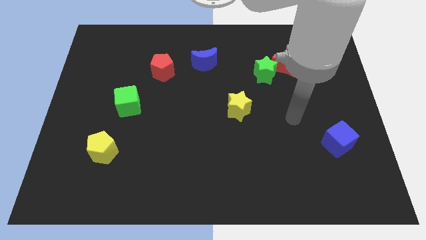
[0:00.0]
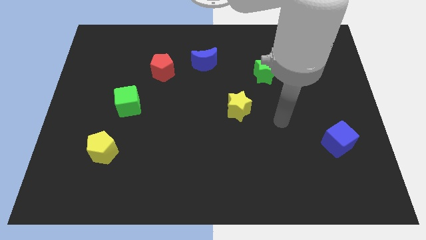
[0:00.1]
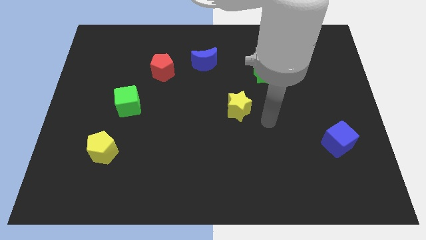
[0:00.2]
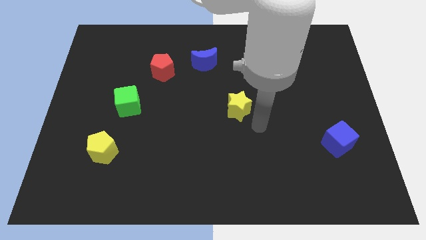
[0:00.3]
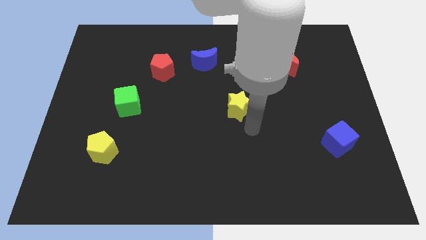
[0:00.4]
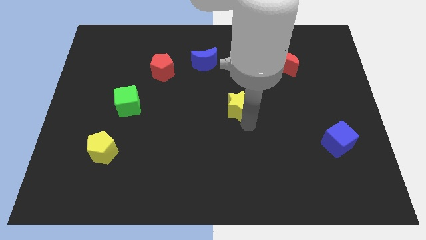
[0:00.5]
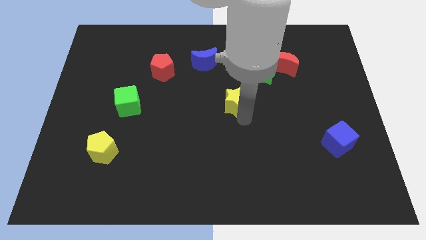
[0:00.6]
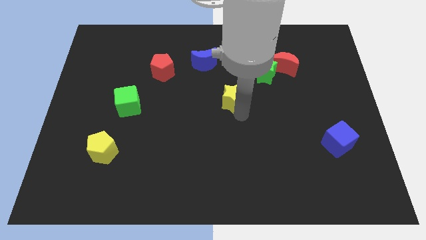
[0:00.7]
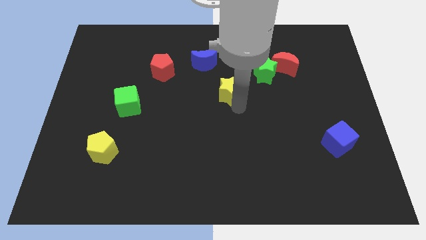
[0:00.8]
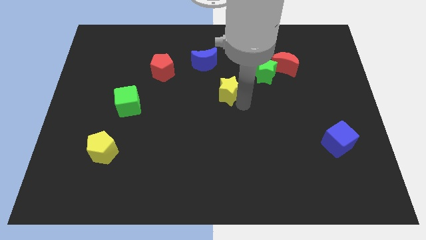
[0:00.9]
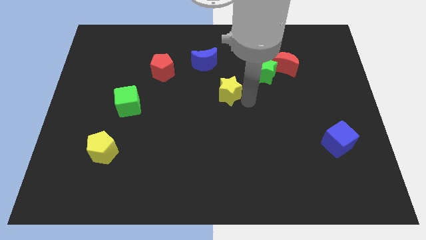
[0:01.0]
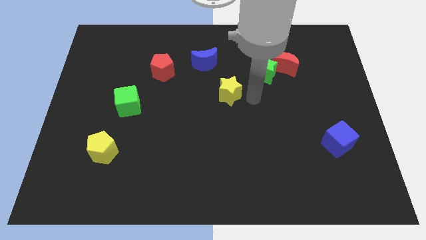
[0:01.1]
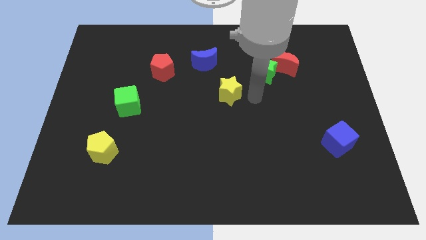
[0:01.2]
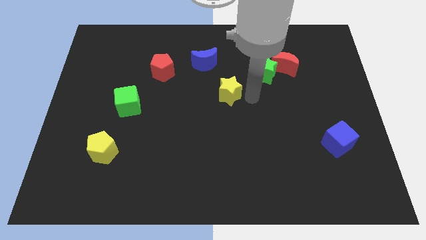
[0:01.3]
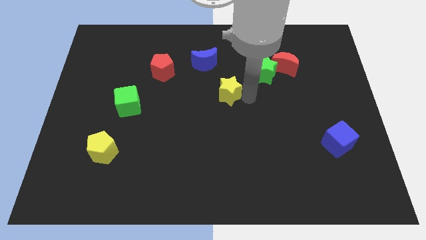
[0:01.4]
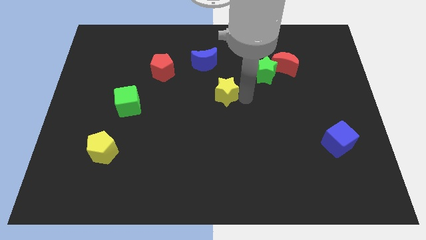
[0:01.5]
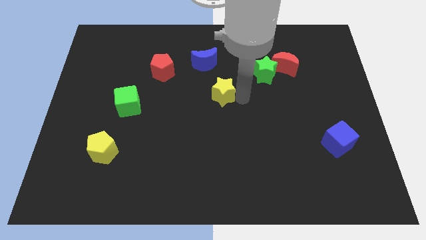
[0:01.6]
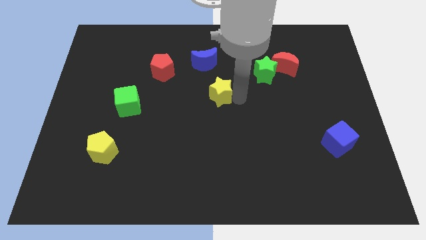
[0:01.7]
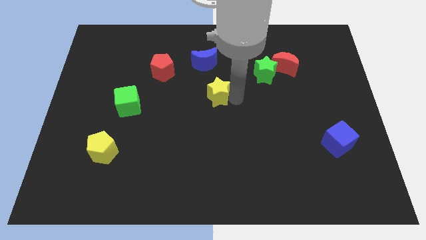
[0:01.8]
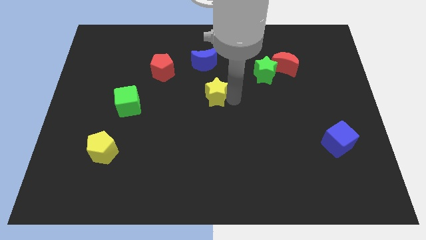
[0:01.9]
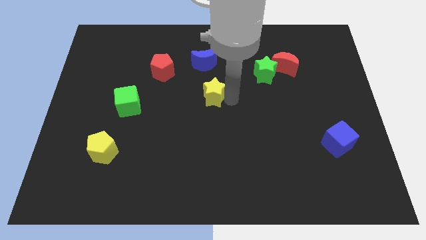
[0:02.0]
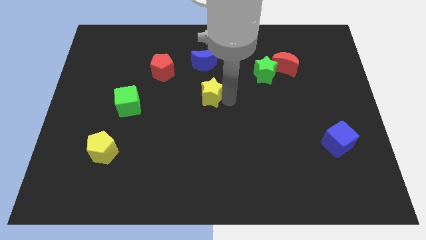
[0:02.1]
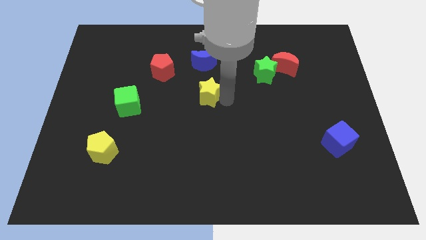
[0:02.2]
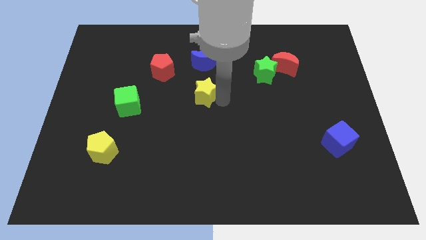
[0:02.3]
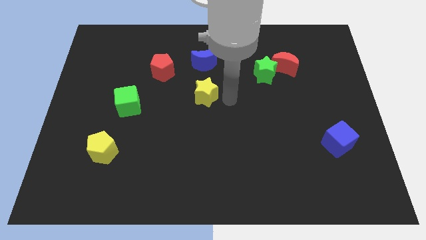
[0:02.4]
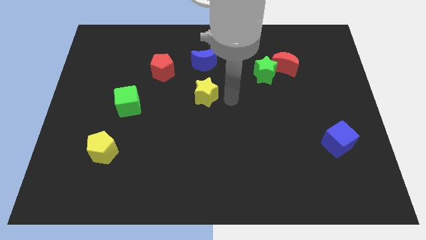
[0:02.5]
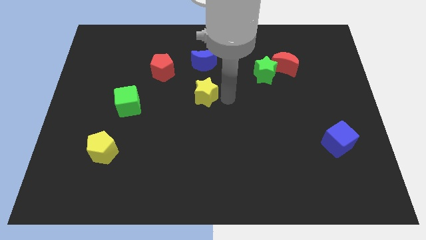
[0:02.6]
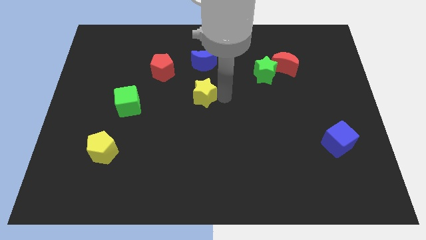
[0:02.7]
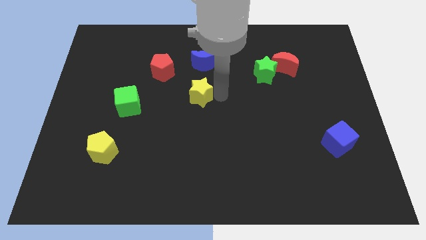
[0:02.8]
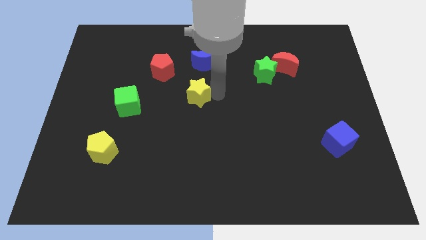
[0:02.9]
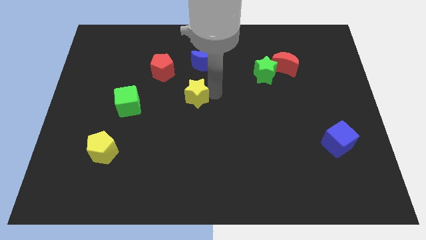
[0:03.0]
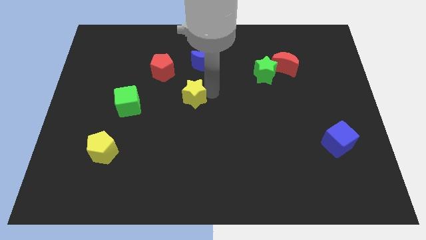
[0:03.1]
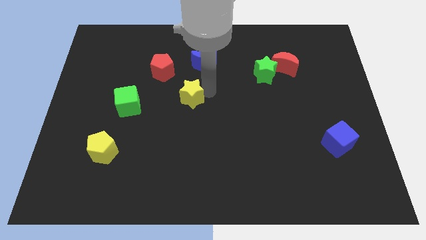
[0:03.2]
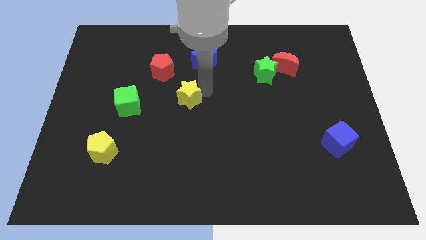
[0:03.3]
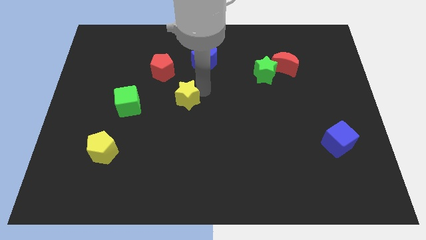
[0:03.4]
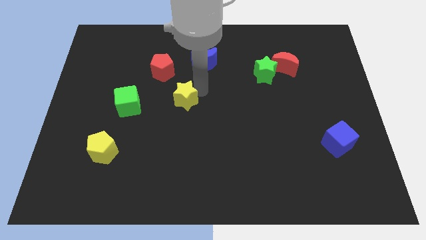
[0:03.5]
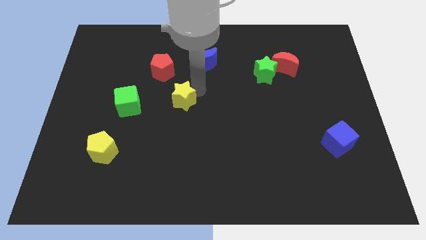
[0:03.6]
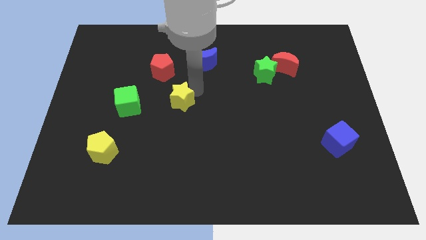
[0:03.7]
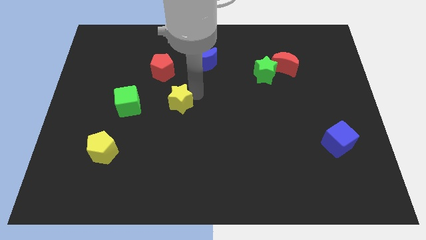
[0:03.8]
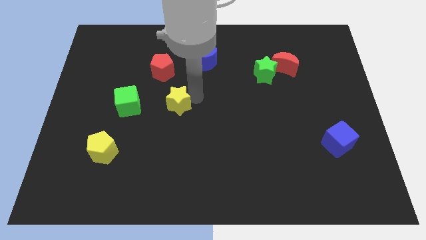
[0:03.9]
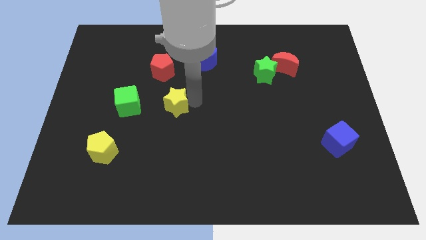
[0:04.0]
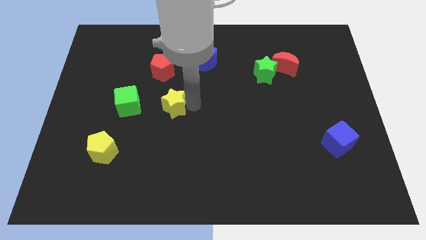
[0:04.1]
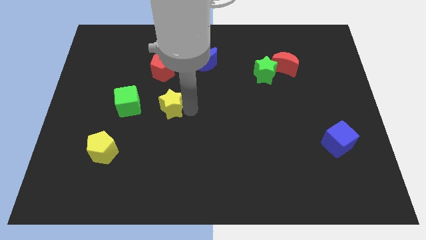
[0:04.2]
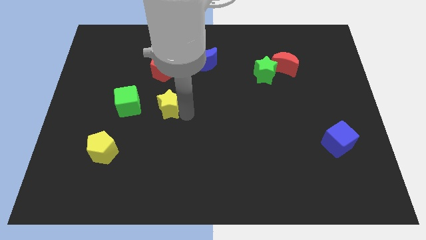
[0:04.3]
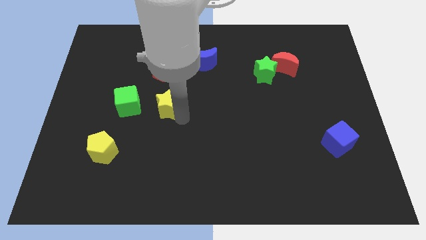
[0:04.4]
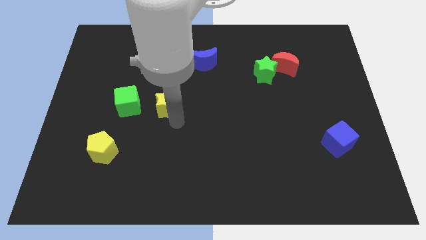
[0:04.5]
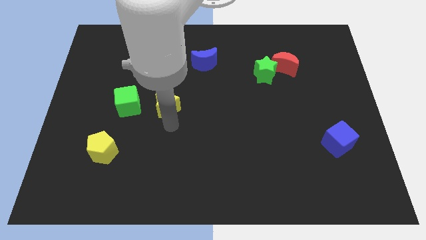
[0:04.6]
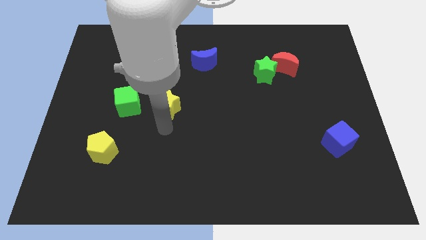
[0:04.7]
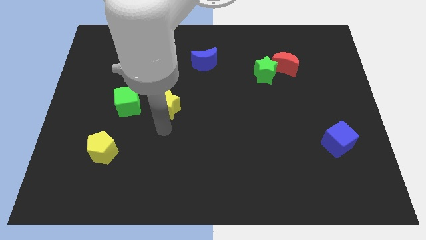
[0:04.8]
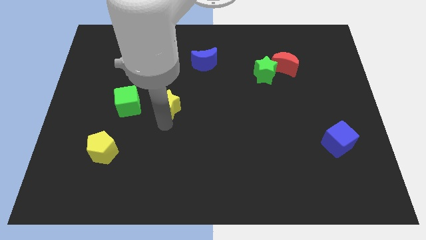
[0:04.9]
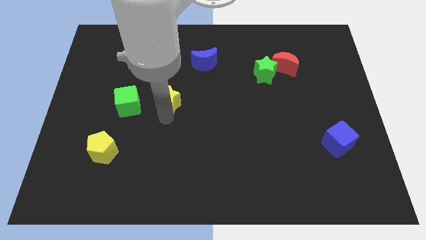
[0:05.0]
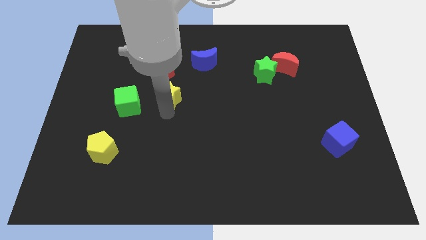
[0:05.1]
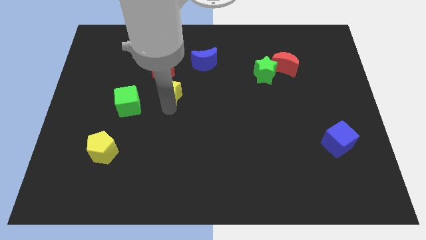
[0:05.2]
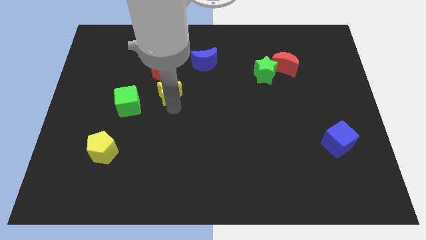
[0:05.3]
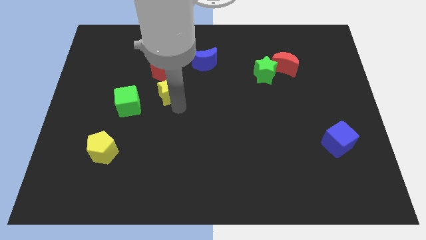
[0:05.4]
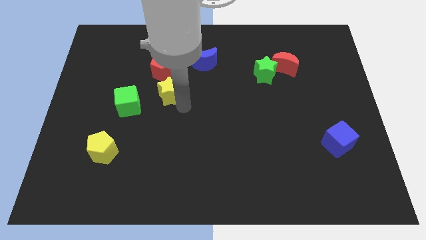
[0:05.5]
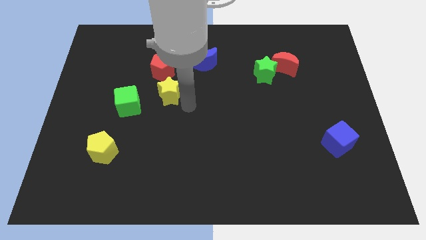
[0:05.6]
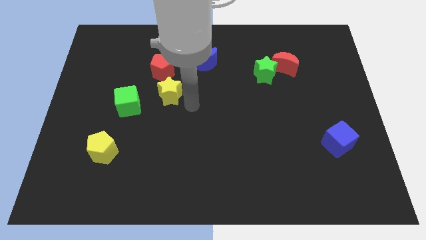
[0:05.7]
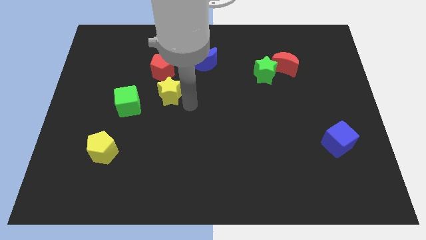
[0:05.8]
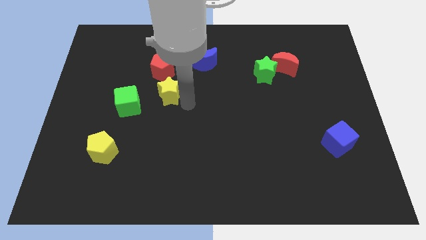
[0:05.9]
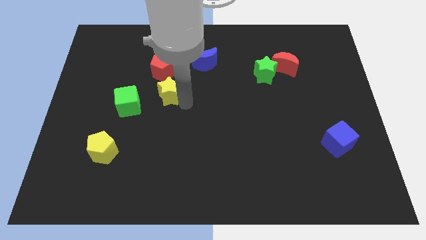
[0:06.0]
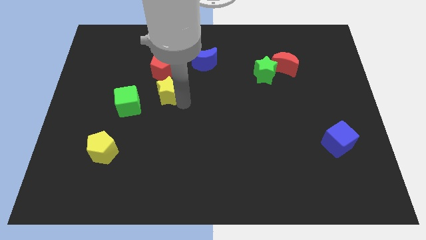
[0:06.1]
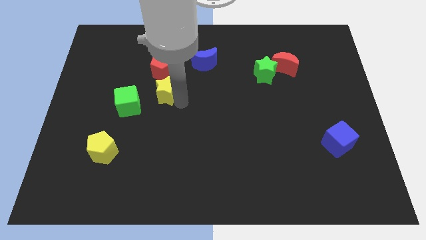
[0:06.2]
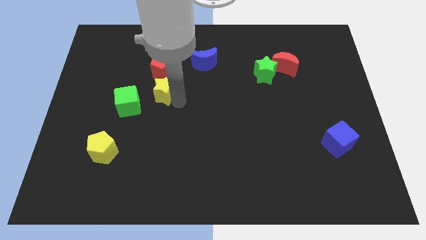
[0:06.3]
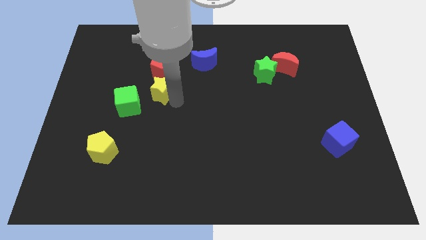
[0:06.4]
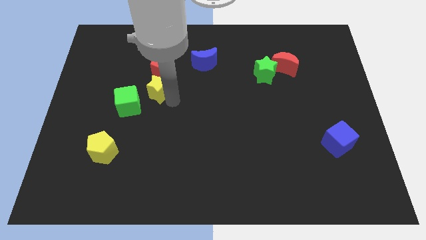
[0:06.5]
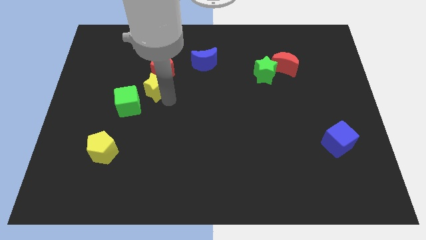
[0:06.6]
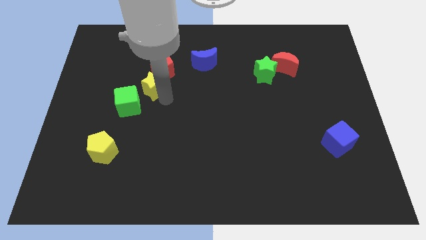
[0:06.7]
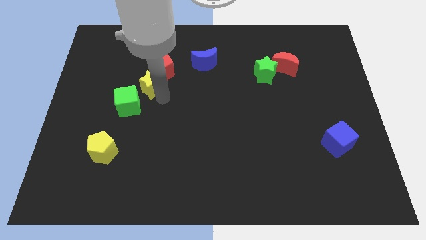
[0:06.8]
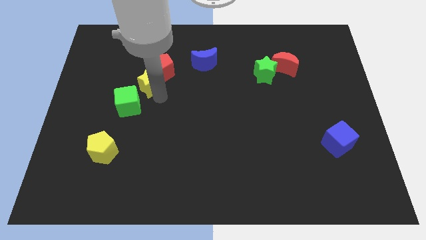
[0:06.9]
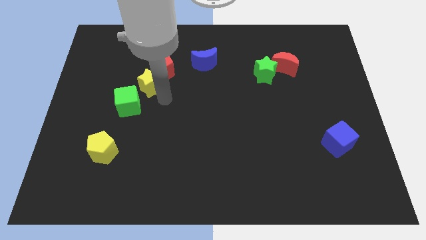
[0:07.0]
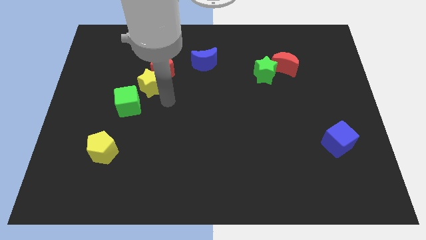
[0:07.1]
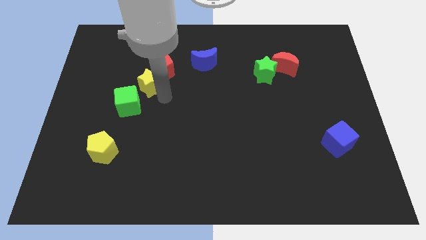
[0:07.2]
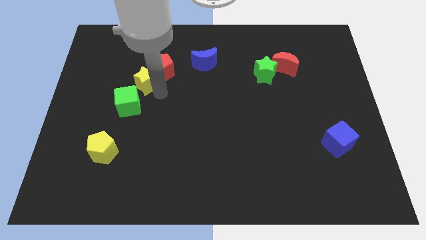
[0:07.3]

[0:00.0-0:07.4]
push the yellow star just left of the red pentagon

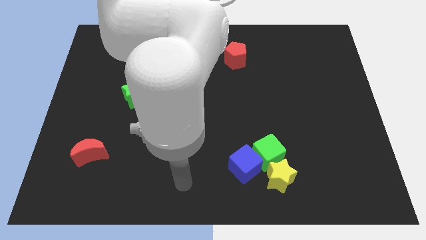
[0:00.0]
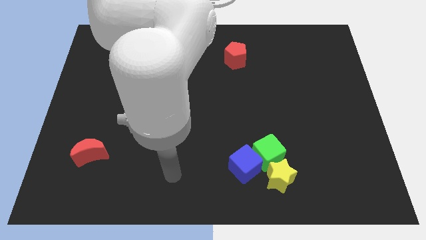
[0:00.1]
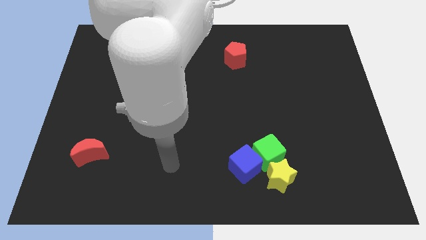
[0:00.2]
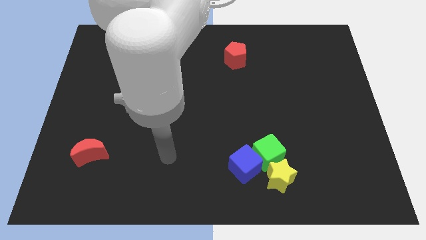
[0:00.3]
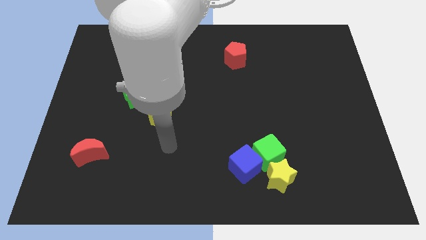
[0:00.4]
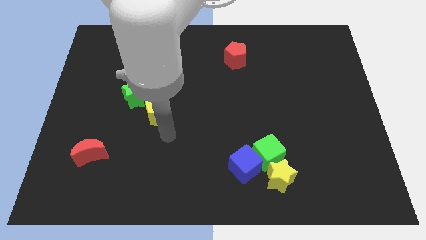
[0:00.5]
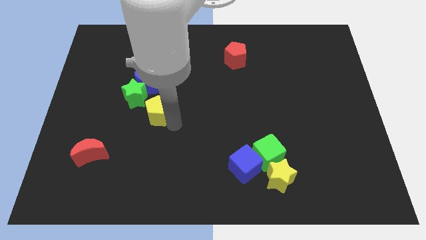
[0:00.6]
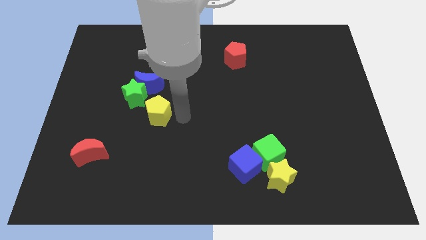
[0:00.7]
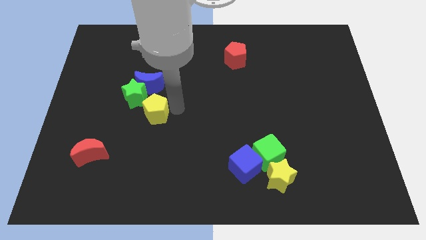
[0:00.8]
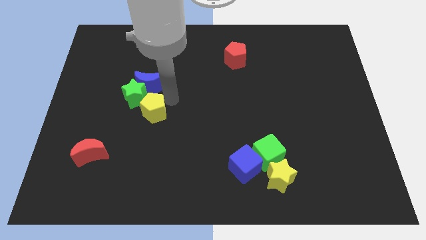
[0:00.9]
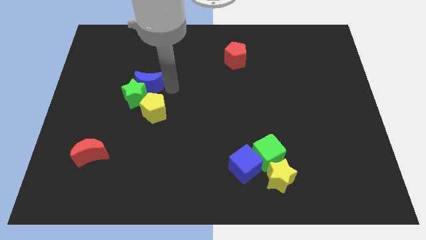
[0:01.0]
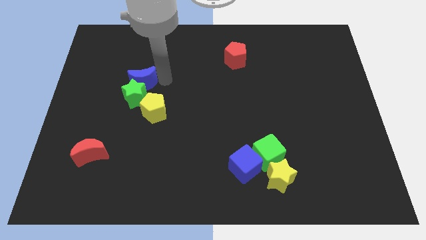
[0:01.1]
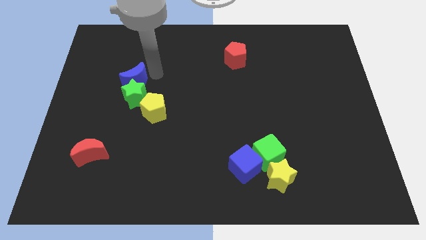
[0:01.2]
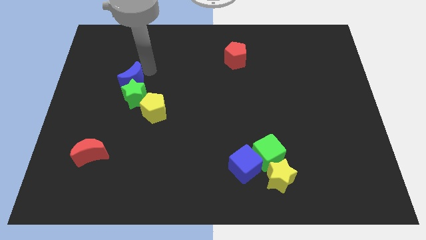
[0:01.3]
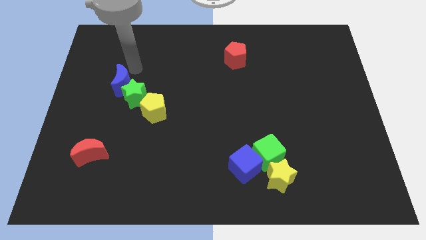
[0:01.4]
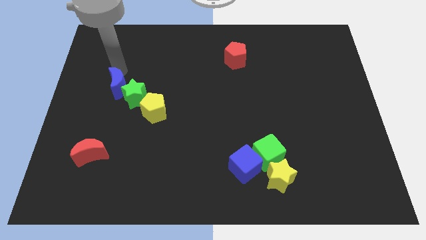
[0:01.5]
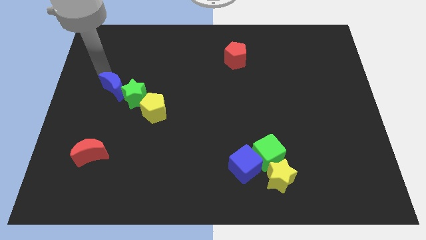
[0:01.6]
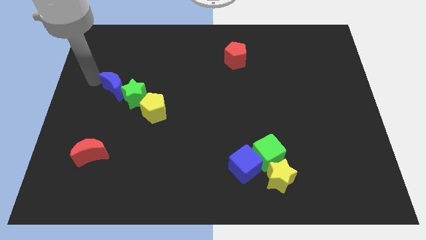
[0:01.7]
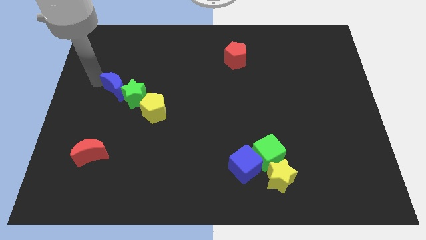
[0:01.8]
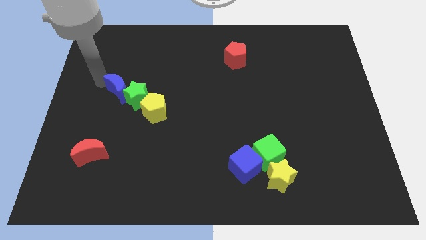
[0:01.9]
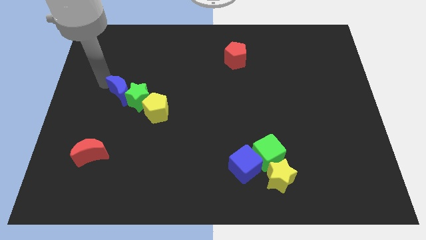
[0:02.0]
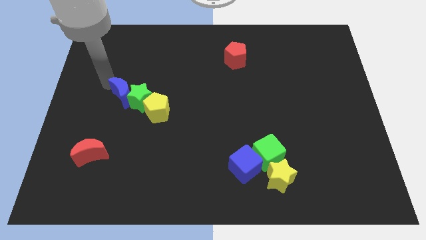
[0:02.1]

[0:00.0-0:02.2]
move the blue moon left of the yellow pentagon
